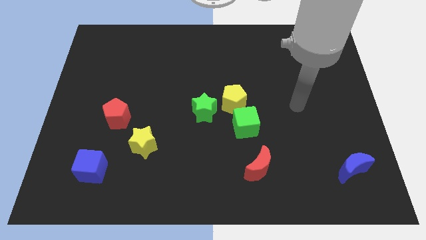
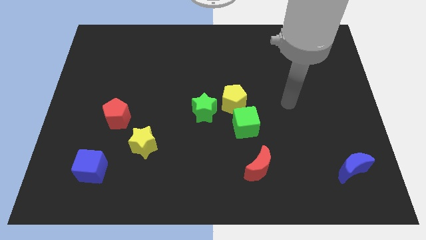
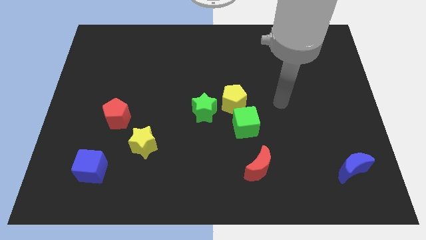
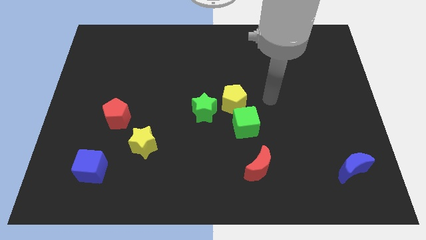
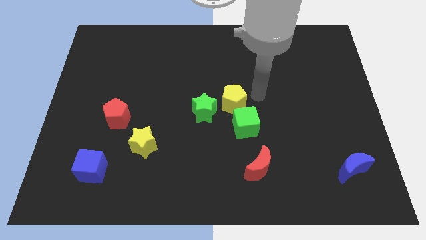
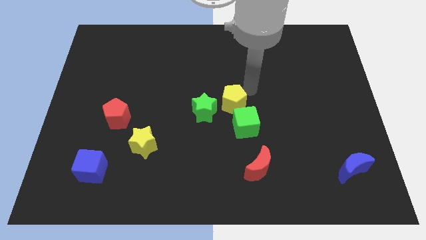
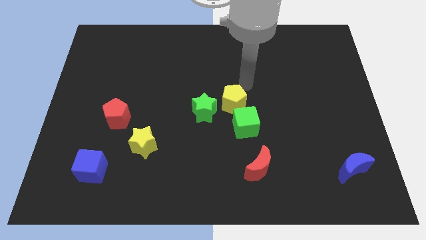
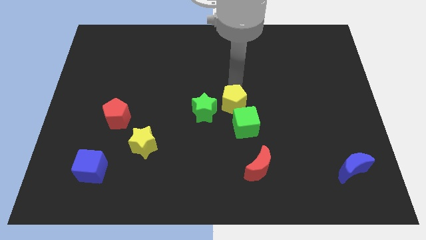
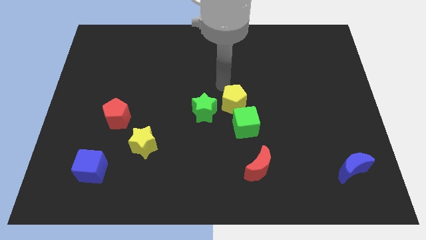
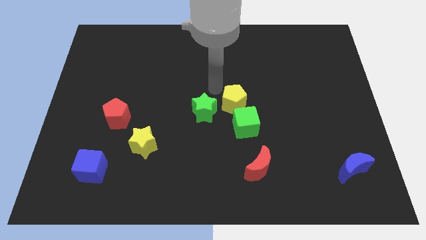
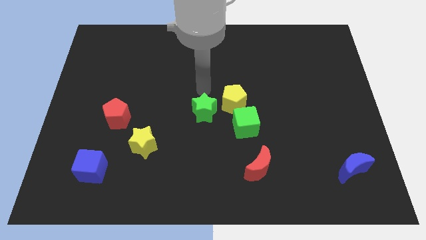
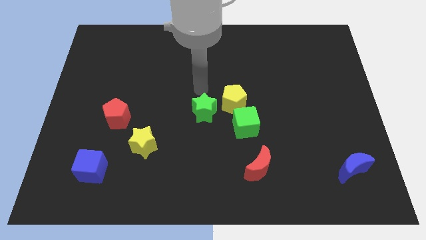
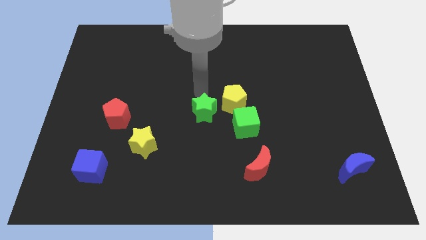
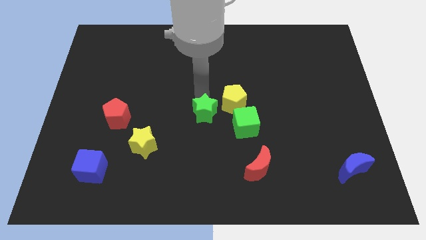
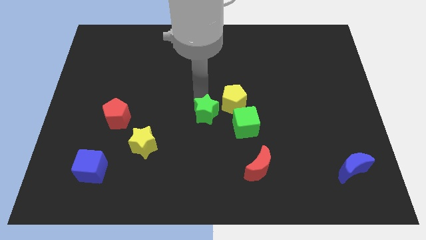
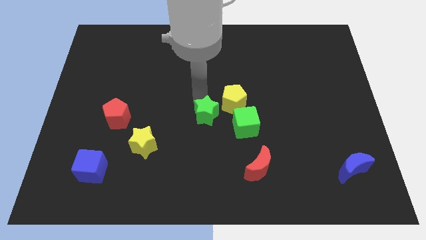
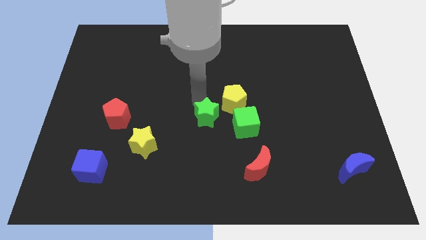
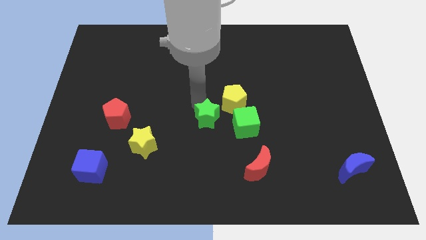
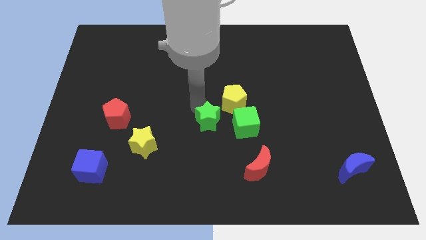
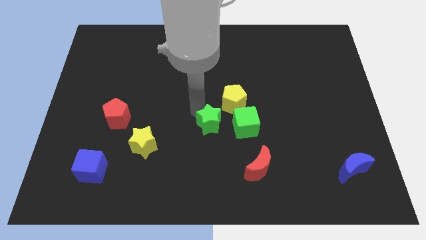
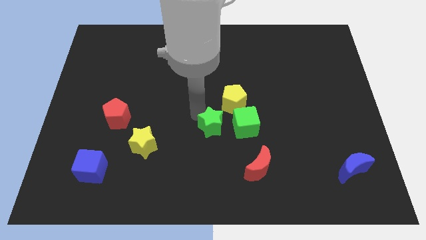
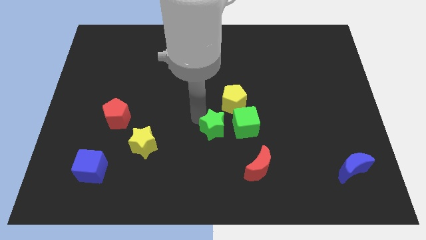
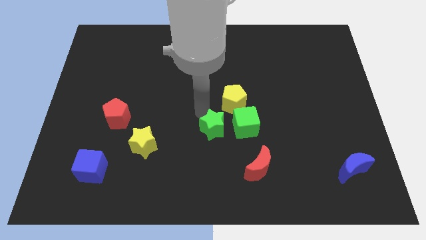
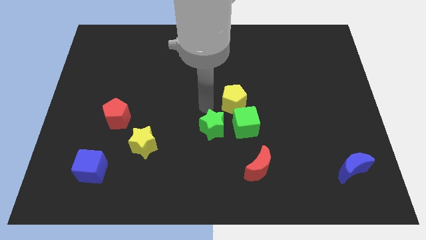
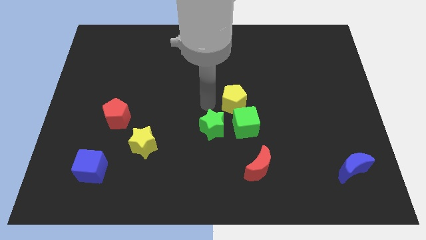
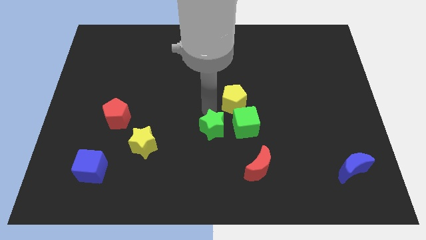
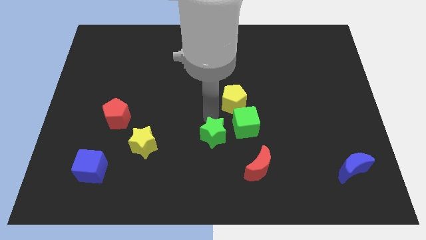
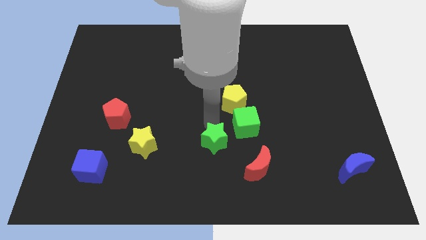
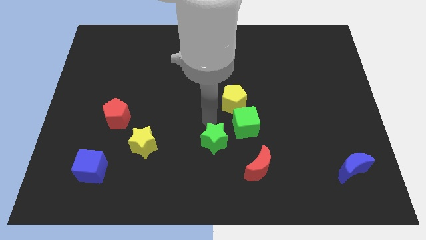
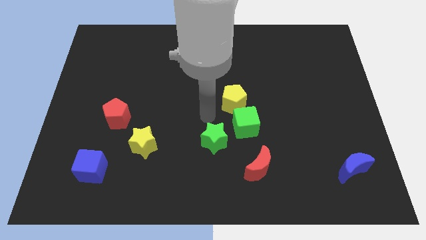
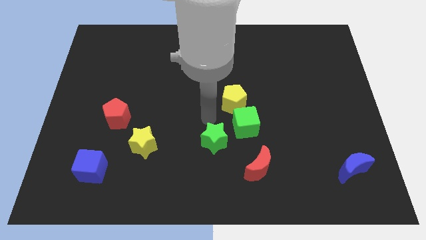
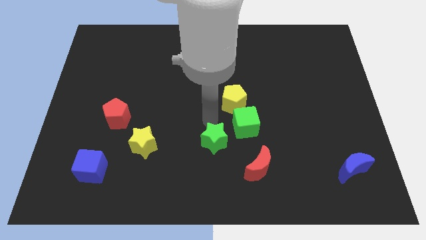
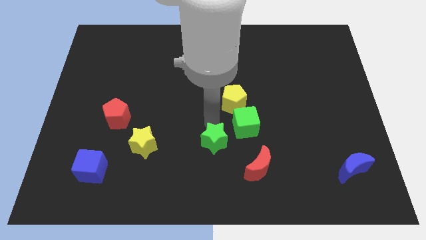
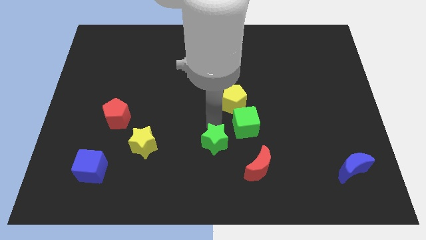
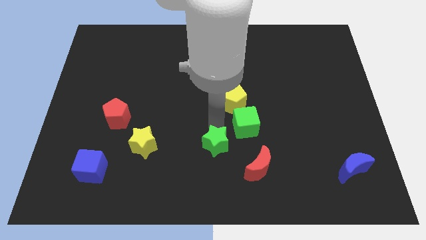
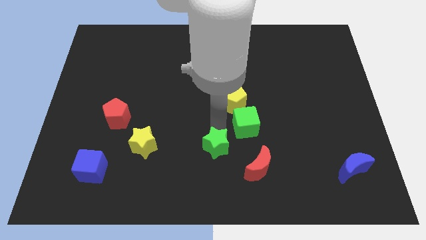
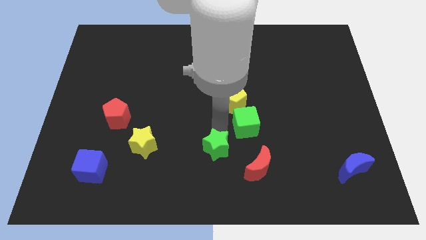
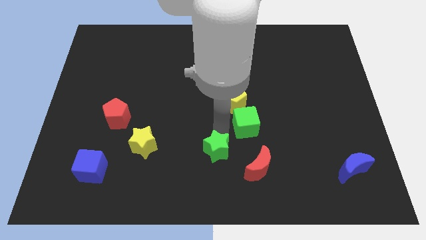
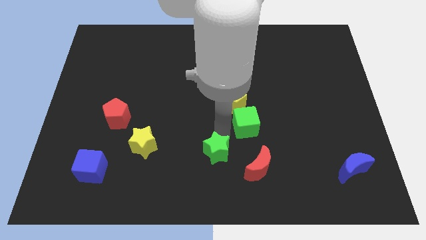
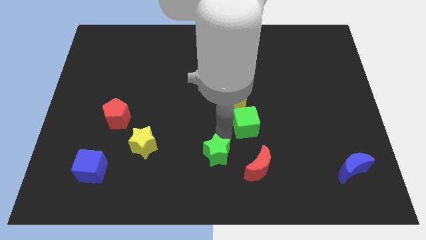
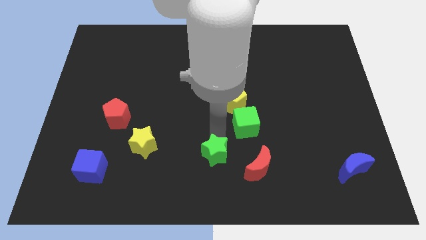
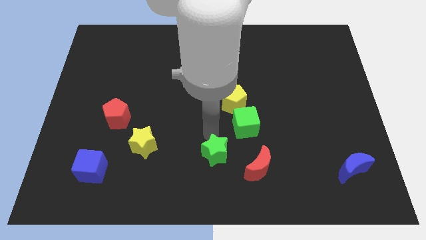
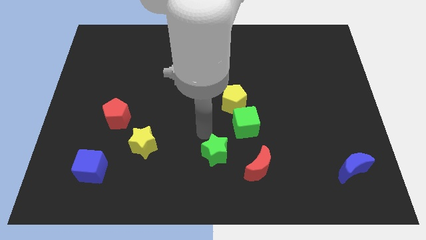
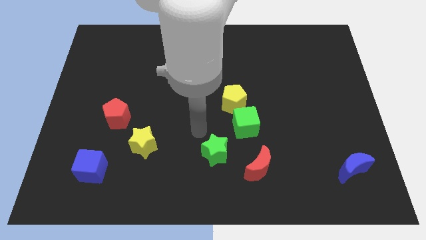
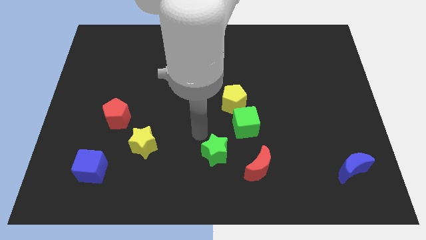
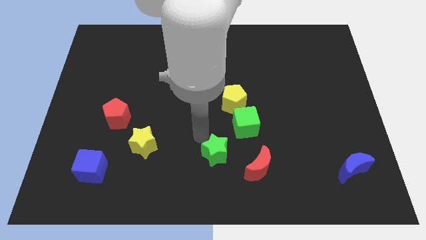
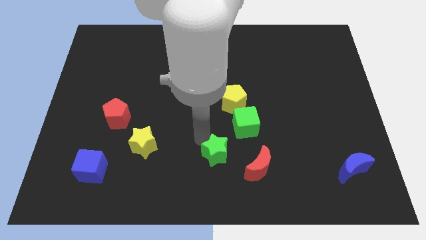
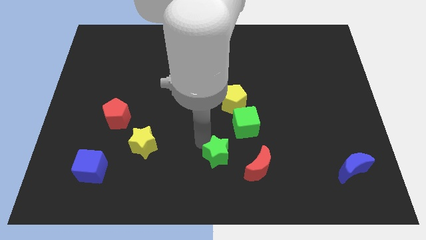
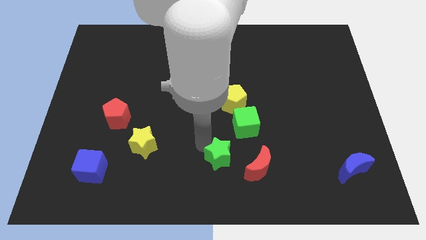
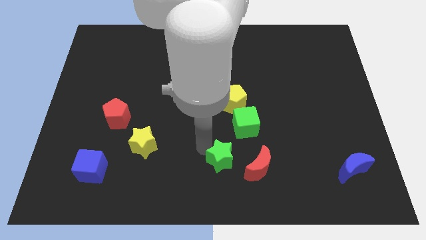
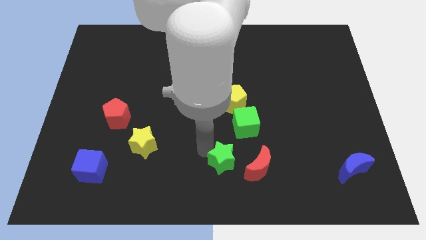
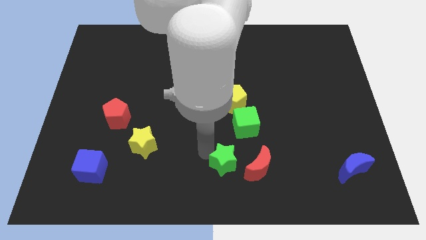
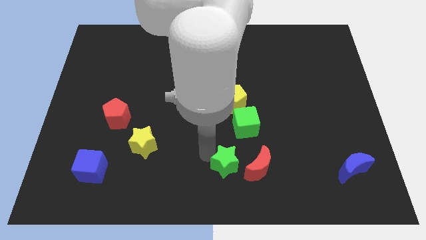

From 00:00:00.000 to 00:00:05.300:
move the green star below the green cube

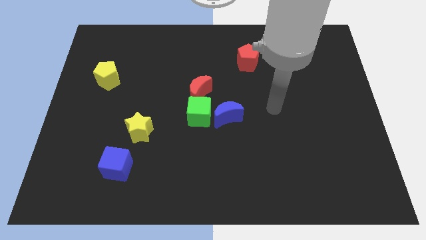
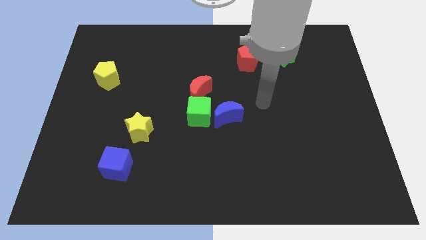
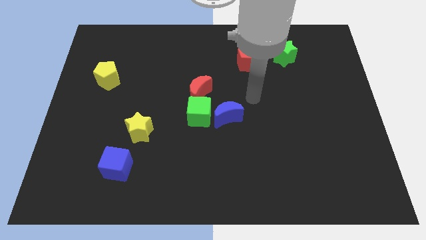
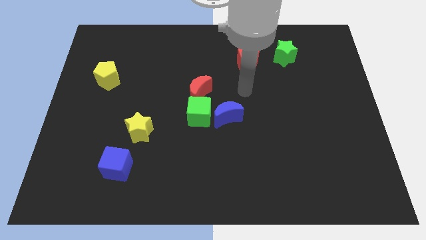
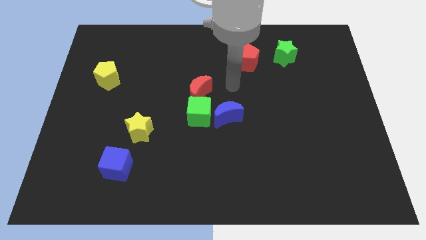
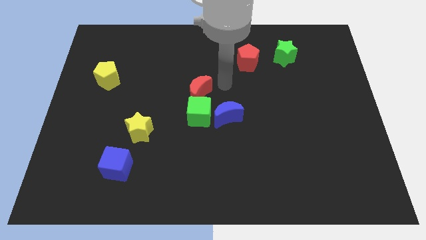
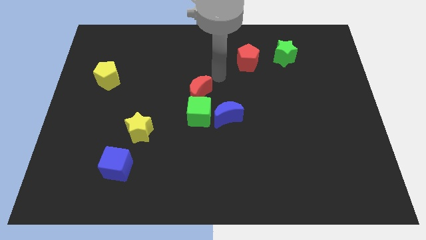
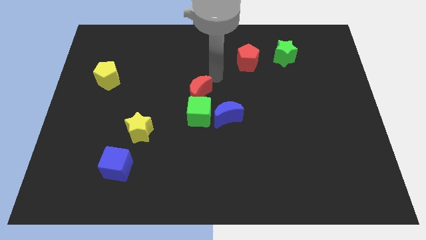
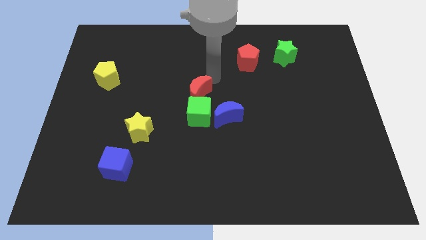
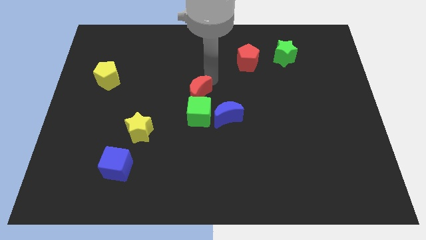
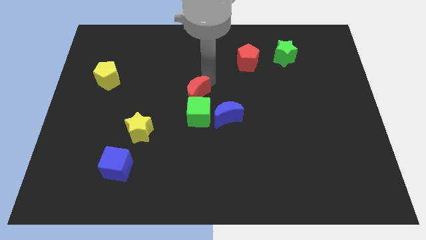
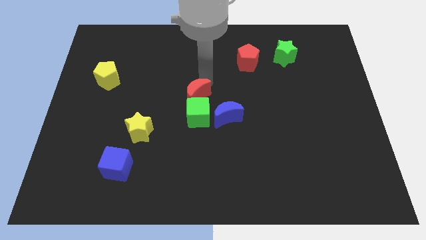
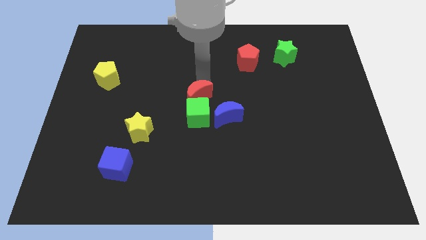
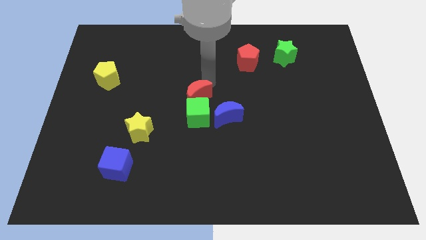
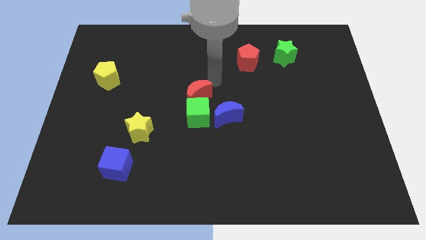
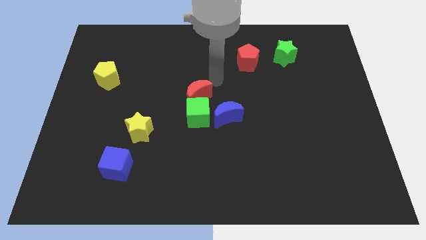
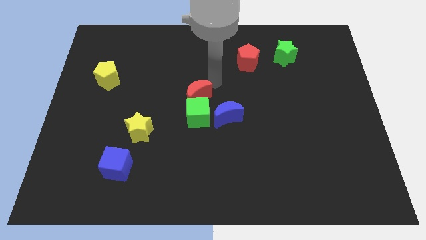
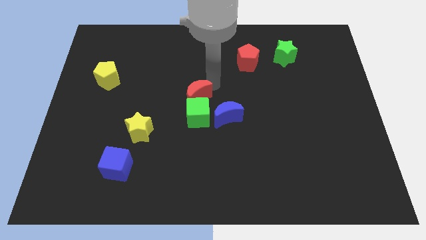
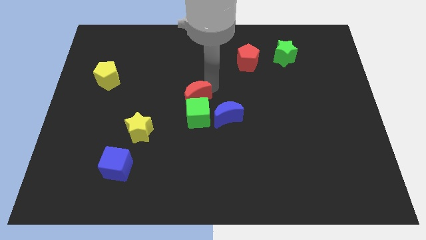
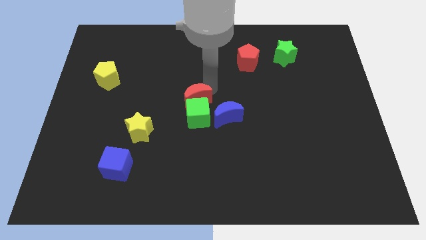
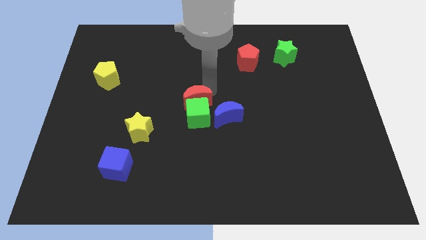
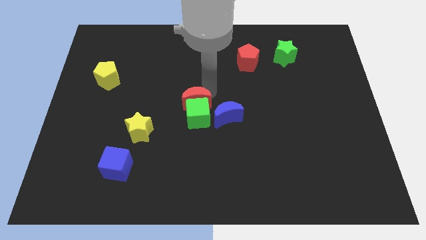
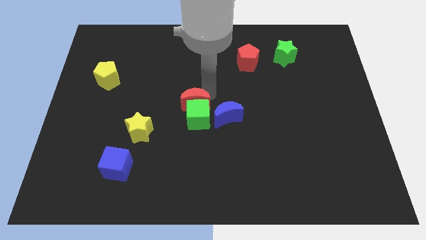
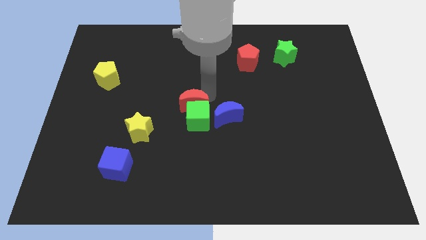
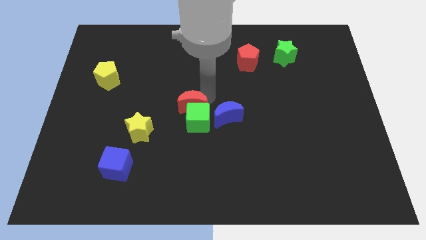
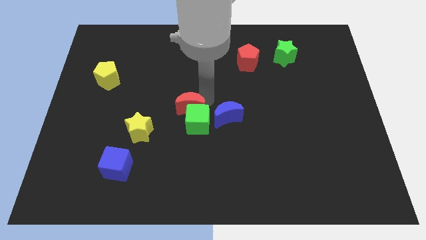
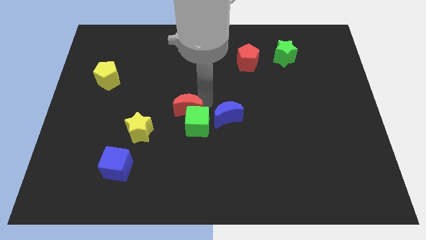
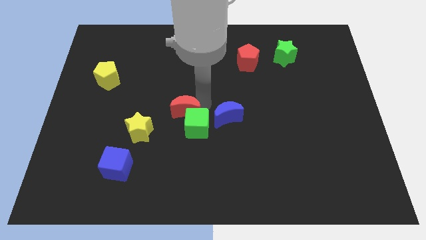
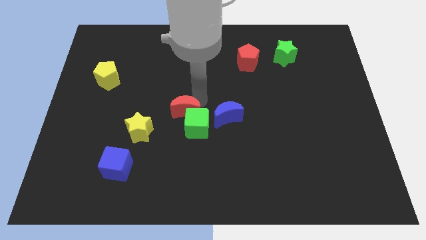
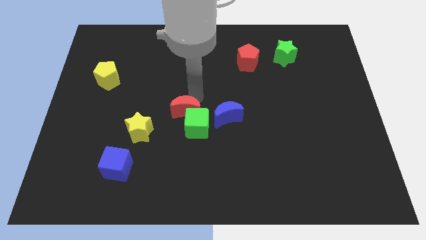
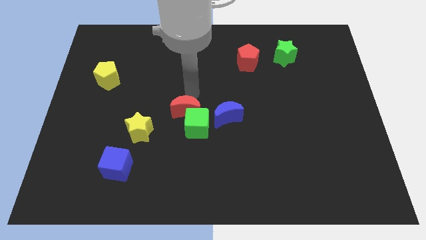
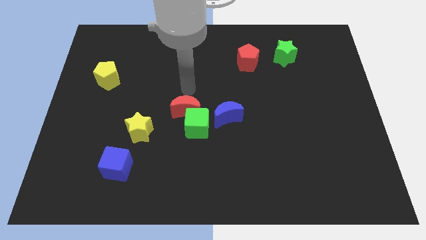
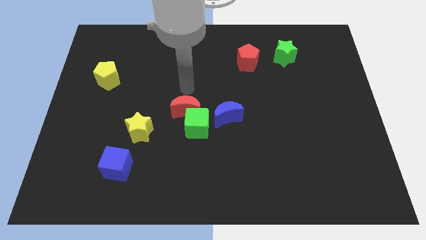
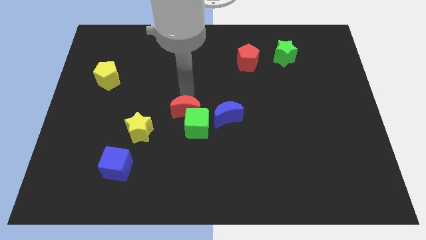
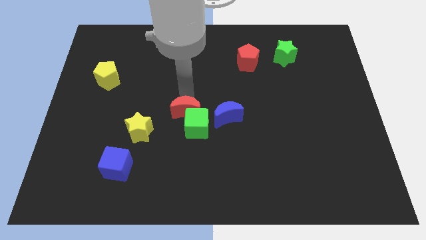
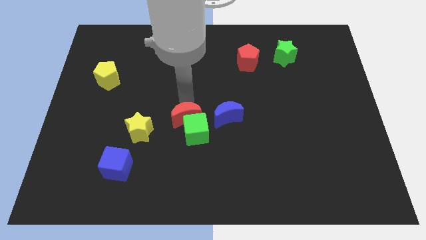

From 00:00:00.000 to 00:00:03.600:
push the red moon right of the yellow star
